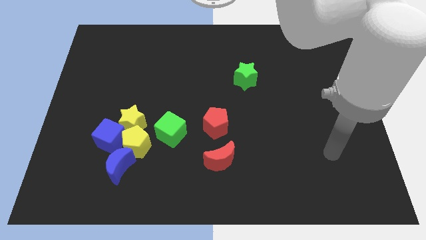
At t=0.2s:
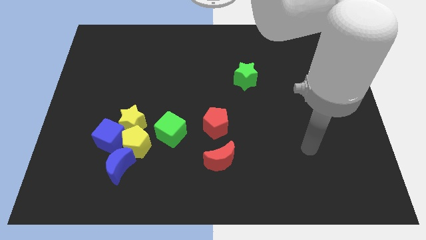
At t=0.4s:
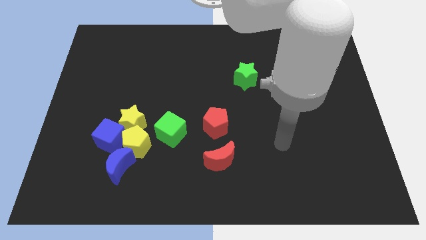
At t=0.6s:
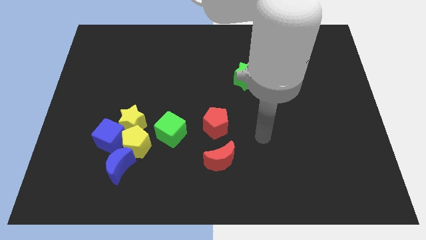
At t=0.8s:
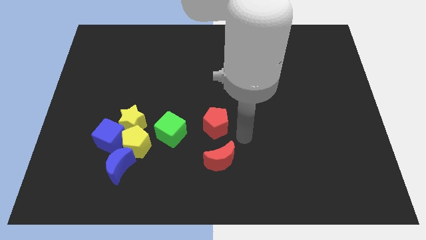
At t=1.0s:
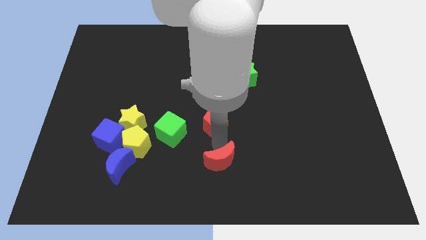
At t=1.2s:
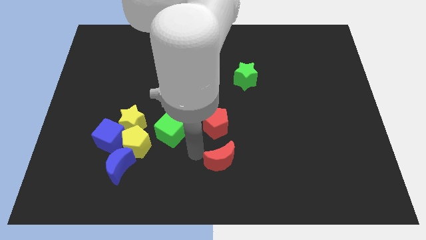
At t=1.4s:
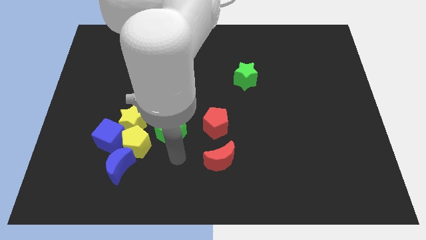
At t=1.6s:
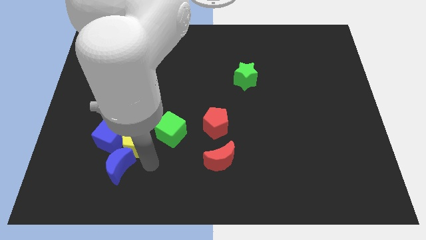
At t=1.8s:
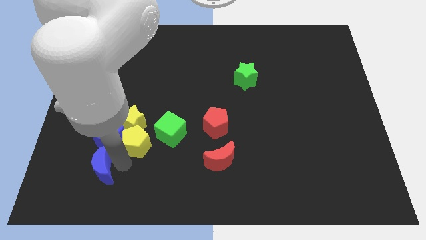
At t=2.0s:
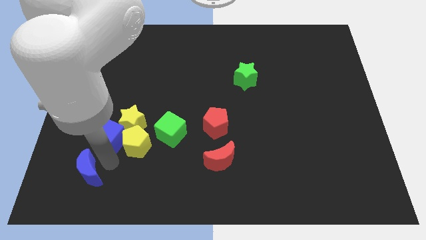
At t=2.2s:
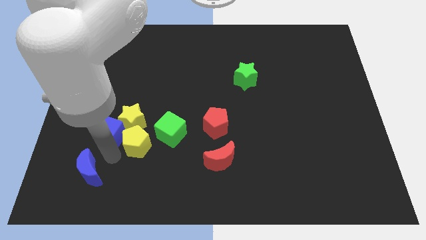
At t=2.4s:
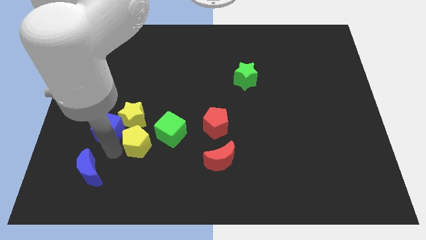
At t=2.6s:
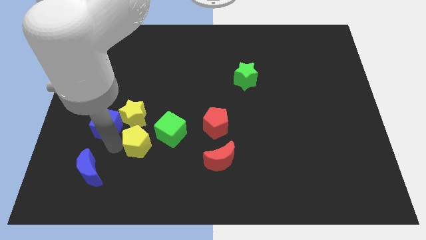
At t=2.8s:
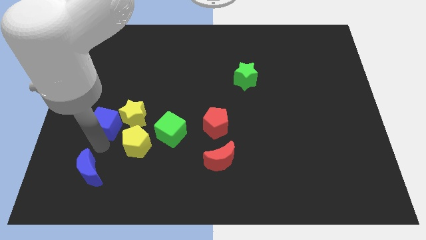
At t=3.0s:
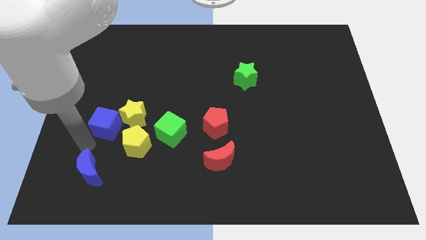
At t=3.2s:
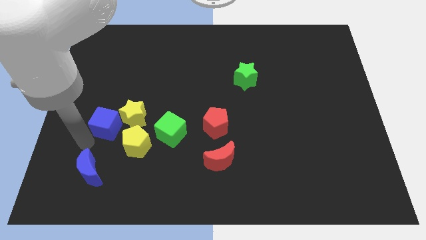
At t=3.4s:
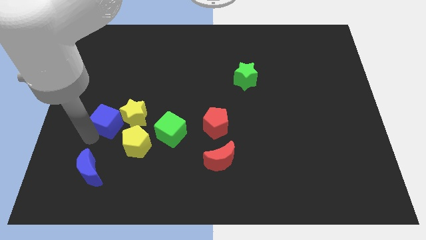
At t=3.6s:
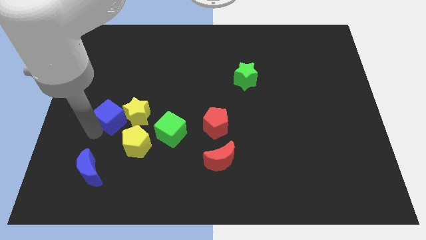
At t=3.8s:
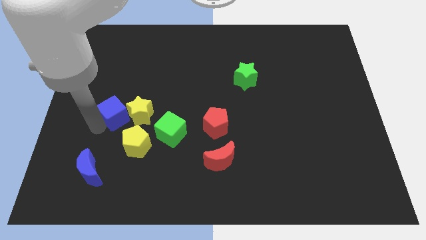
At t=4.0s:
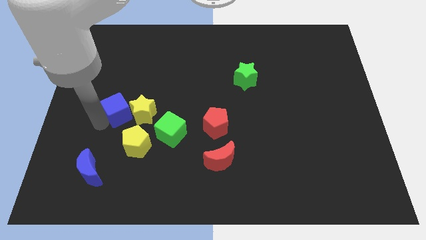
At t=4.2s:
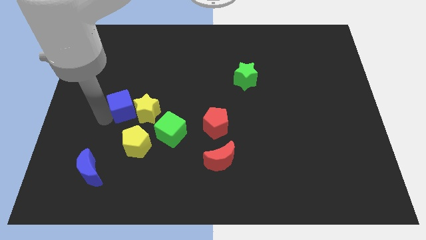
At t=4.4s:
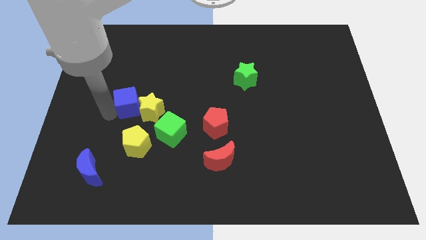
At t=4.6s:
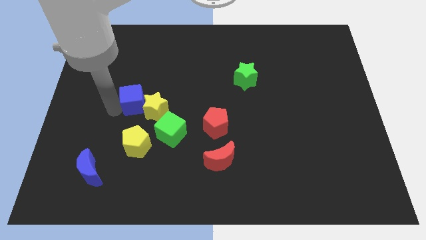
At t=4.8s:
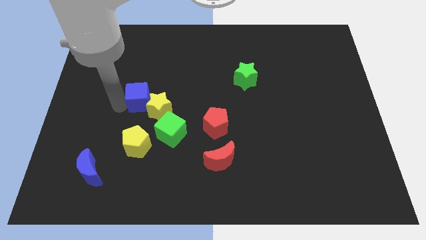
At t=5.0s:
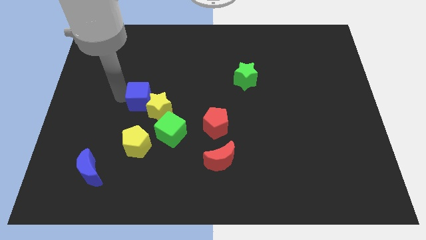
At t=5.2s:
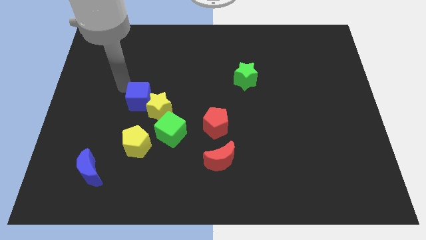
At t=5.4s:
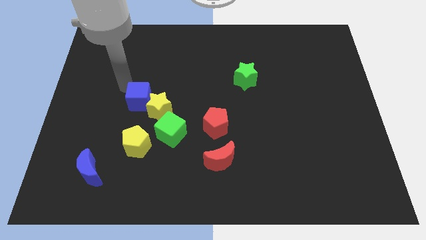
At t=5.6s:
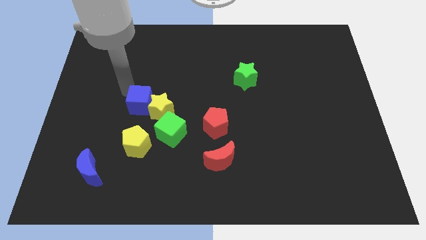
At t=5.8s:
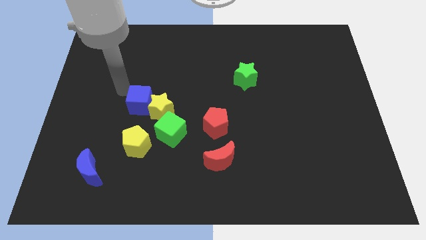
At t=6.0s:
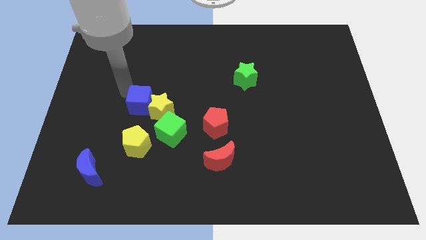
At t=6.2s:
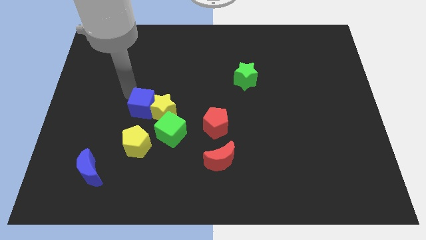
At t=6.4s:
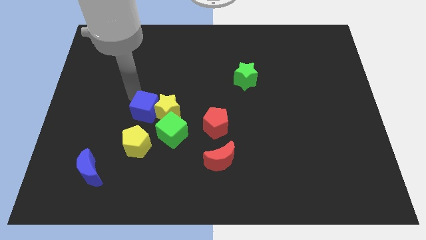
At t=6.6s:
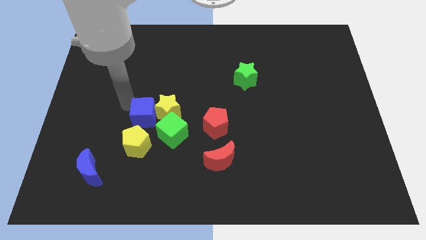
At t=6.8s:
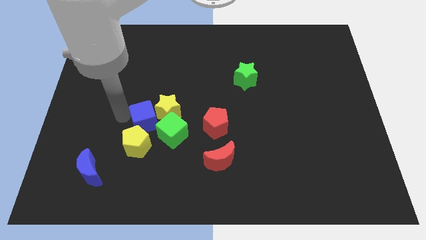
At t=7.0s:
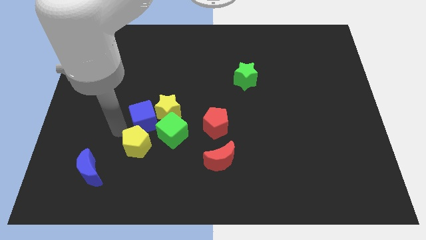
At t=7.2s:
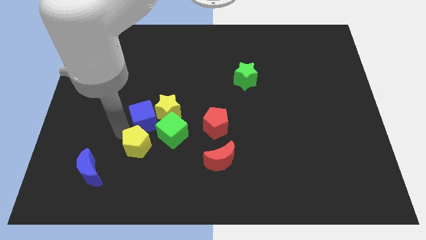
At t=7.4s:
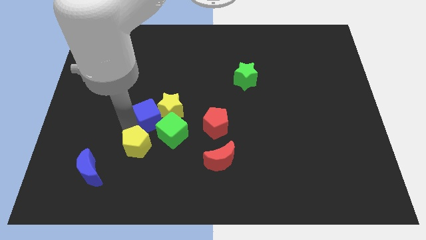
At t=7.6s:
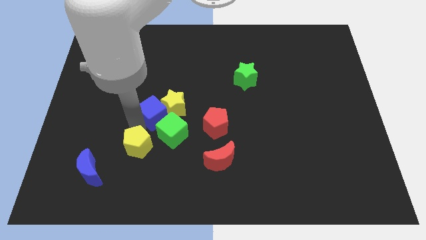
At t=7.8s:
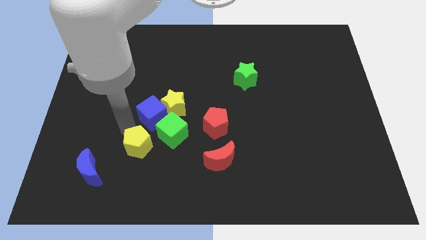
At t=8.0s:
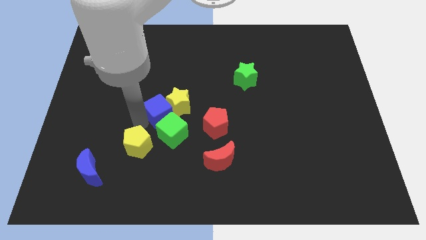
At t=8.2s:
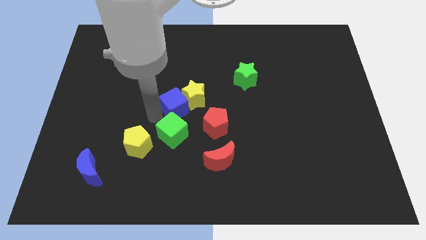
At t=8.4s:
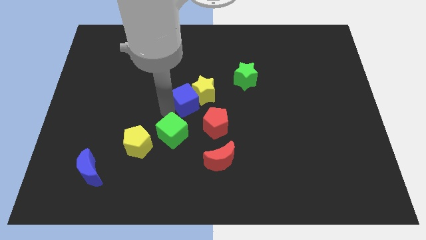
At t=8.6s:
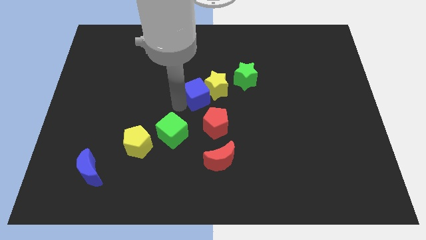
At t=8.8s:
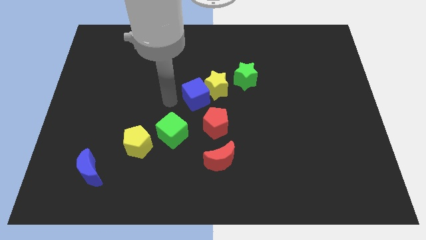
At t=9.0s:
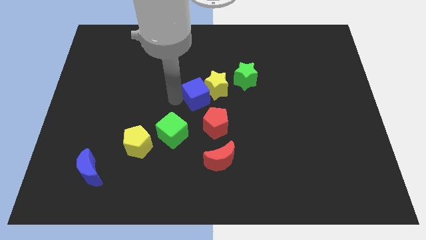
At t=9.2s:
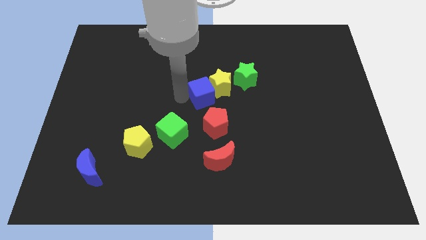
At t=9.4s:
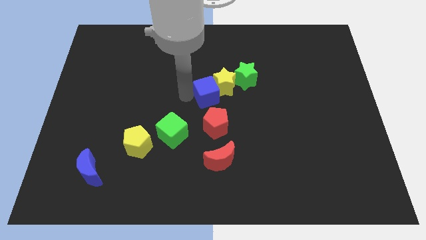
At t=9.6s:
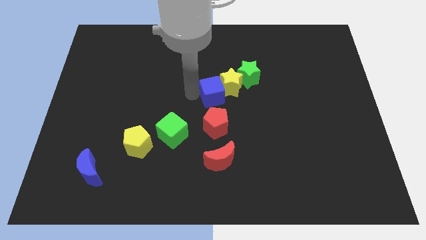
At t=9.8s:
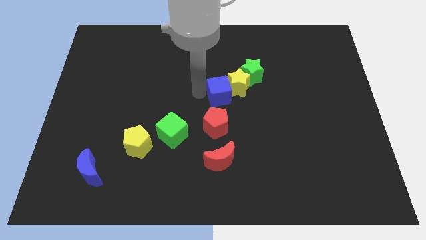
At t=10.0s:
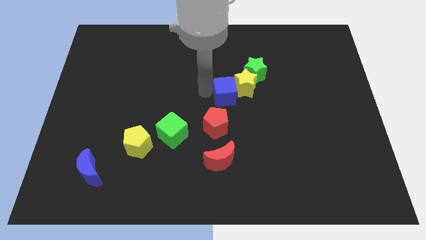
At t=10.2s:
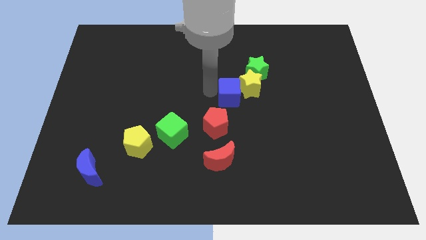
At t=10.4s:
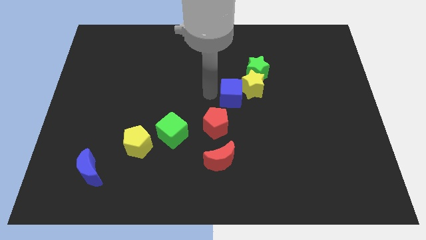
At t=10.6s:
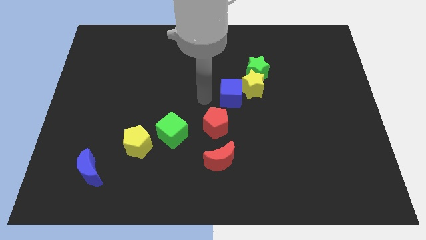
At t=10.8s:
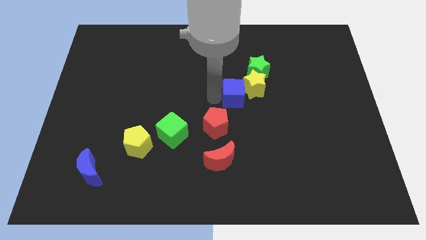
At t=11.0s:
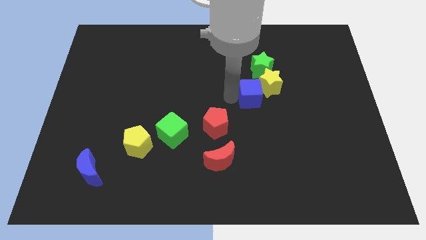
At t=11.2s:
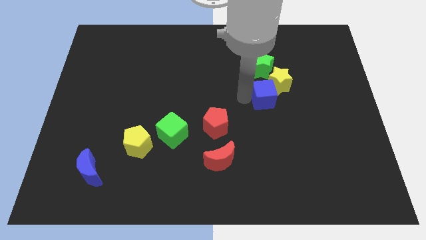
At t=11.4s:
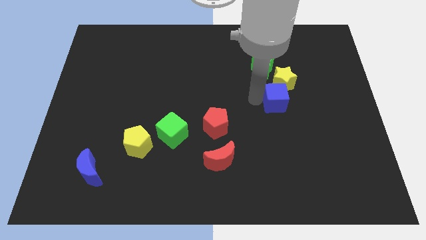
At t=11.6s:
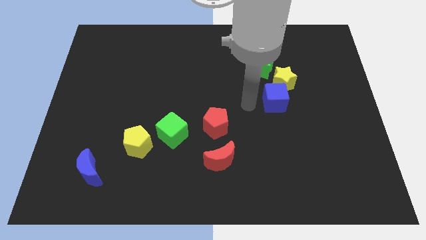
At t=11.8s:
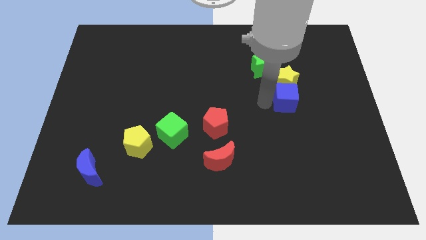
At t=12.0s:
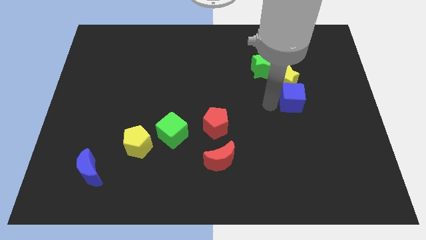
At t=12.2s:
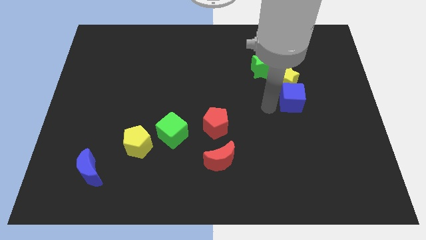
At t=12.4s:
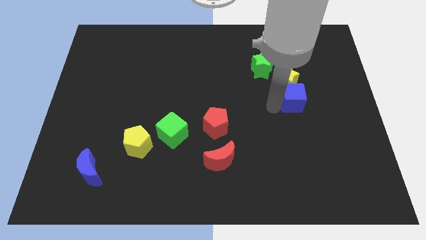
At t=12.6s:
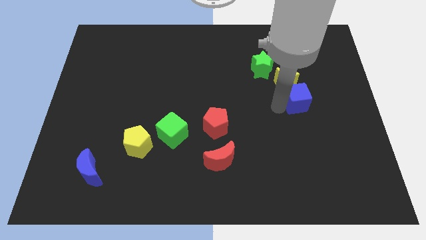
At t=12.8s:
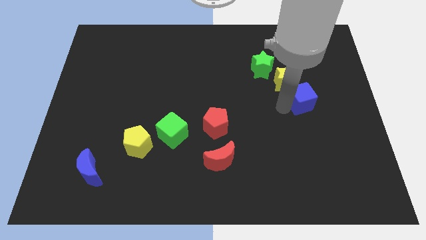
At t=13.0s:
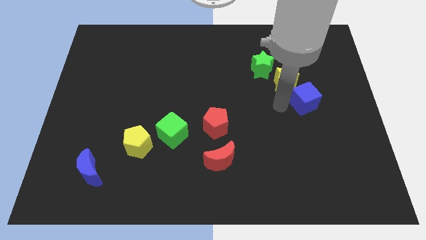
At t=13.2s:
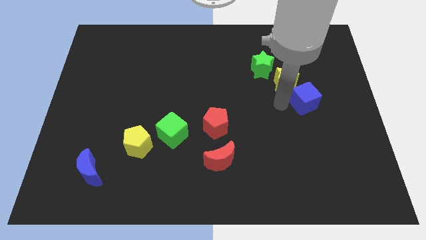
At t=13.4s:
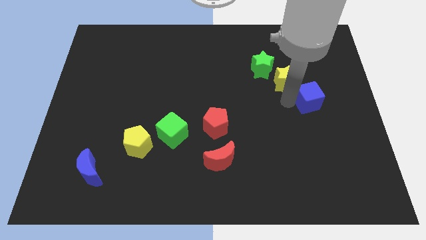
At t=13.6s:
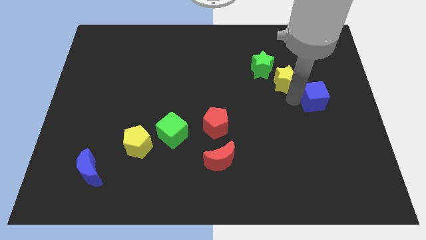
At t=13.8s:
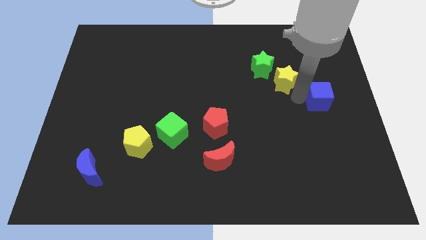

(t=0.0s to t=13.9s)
slide the blue cube to the center right
